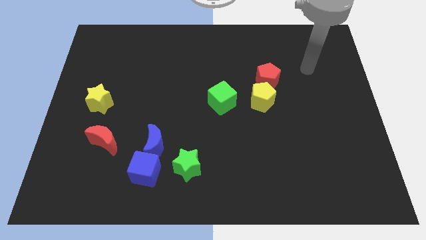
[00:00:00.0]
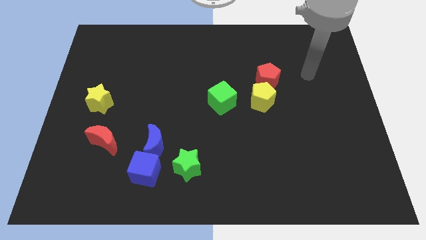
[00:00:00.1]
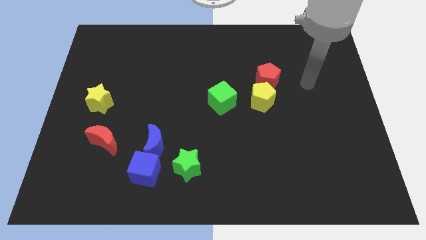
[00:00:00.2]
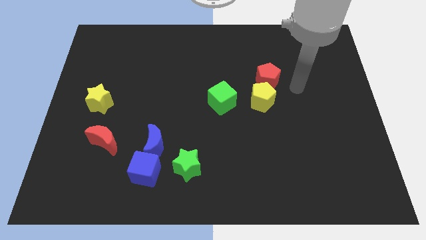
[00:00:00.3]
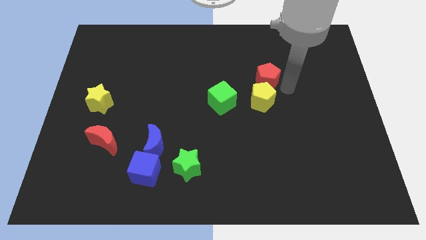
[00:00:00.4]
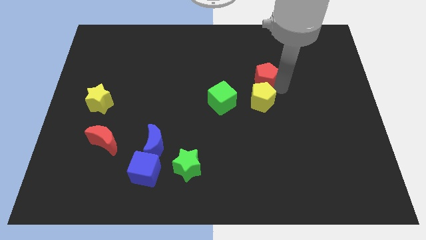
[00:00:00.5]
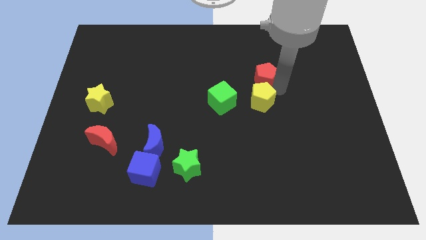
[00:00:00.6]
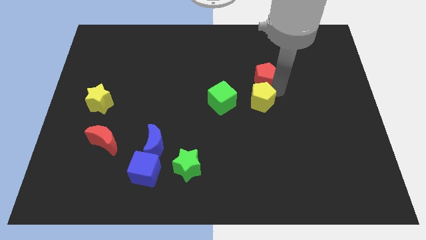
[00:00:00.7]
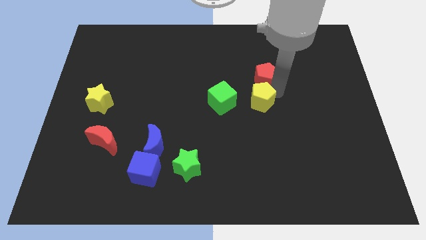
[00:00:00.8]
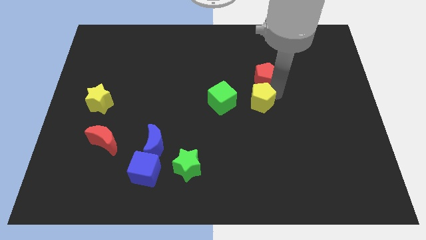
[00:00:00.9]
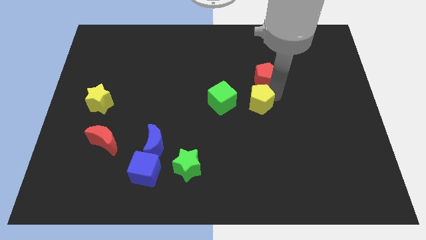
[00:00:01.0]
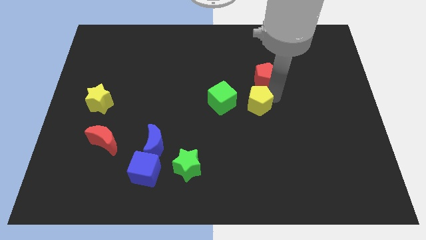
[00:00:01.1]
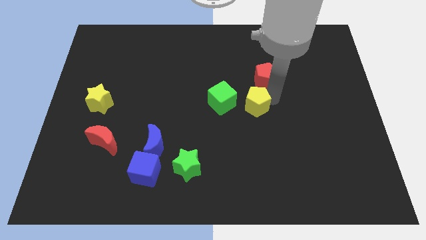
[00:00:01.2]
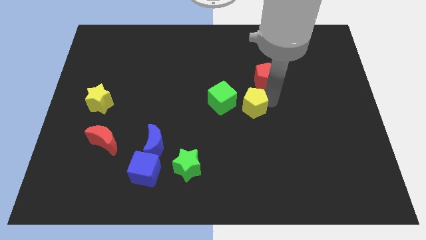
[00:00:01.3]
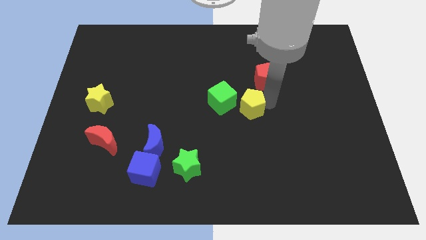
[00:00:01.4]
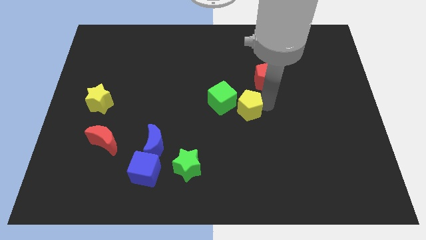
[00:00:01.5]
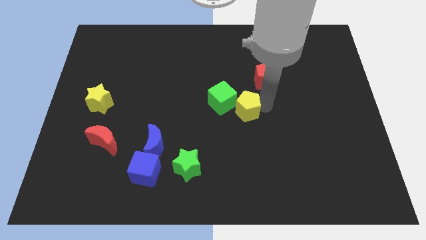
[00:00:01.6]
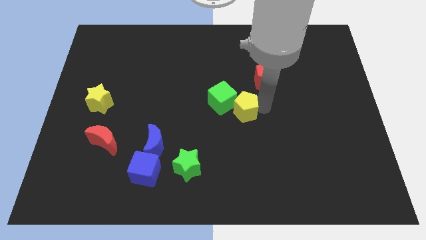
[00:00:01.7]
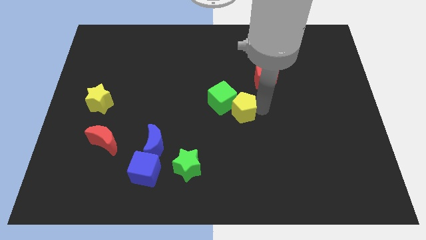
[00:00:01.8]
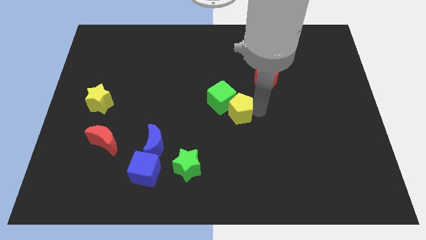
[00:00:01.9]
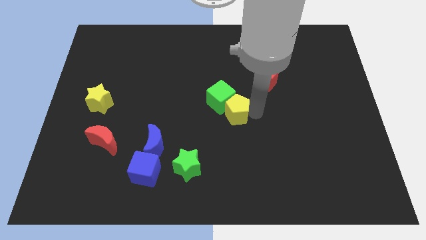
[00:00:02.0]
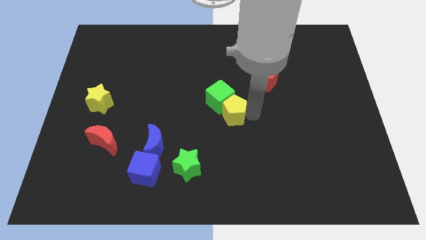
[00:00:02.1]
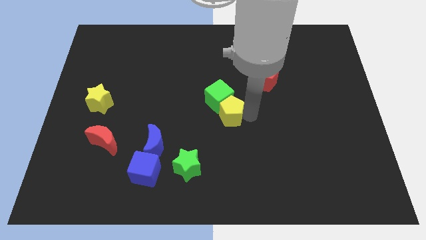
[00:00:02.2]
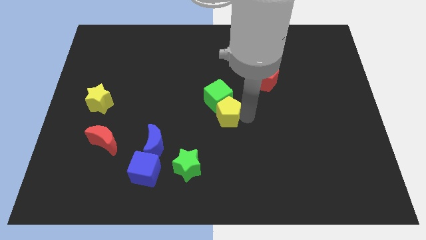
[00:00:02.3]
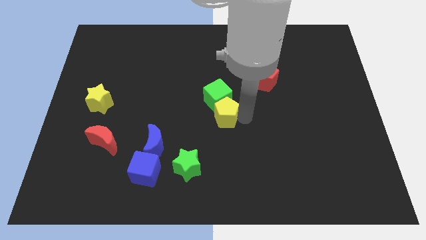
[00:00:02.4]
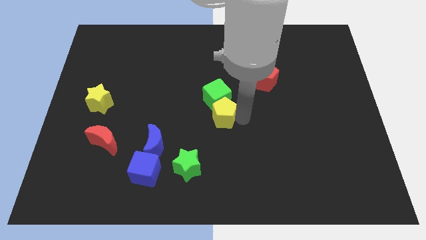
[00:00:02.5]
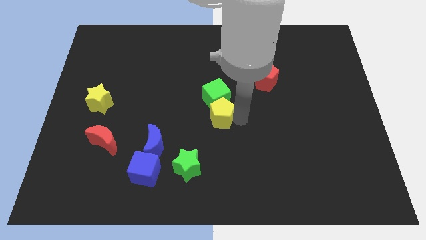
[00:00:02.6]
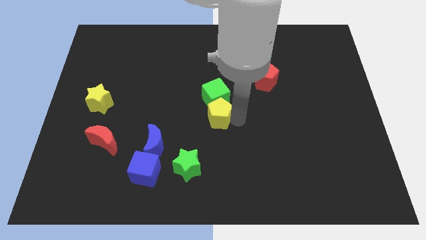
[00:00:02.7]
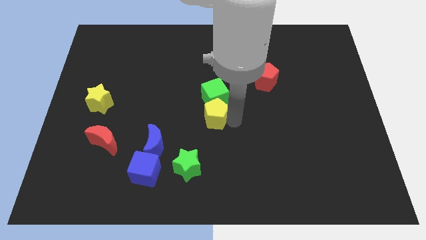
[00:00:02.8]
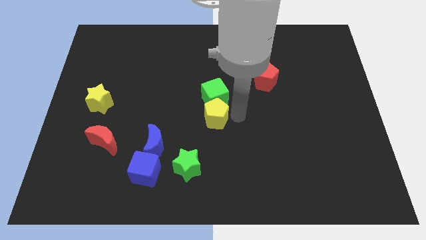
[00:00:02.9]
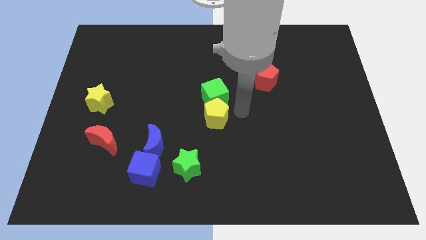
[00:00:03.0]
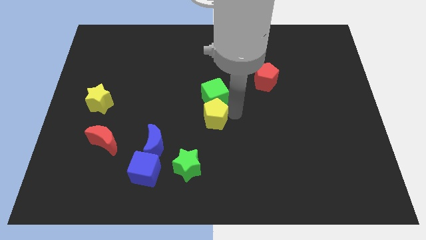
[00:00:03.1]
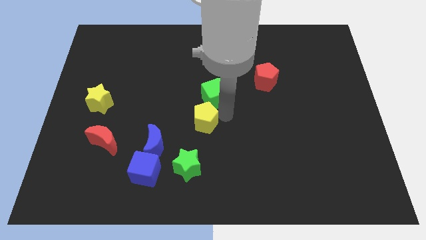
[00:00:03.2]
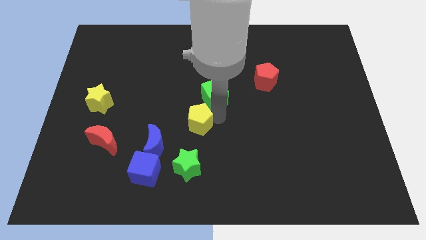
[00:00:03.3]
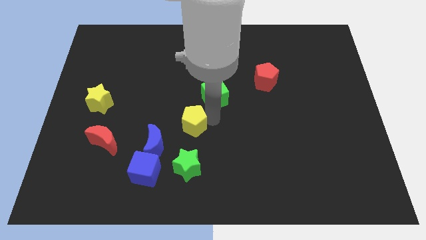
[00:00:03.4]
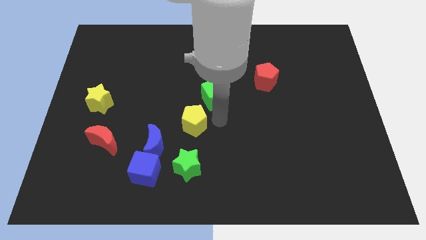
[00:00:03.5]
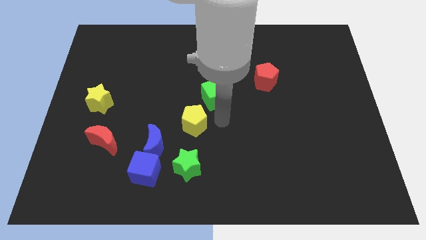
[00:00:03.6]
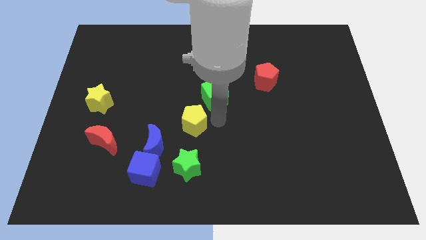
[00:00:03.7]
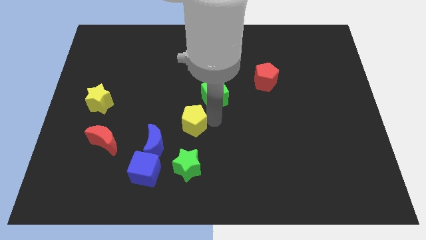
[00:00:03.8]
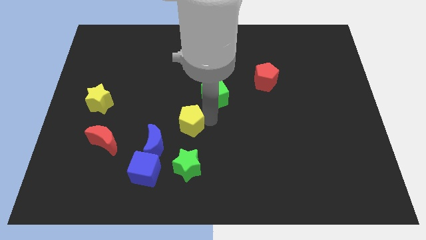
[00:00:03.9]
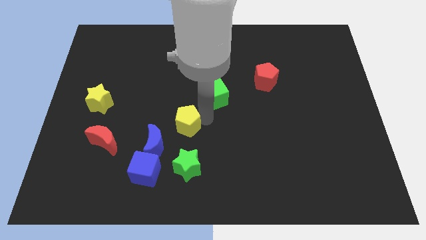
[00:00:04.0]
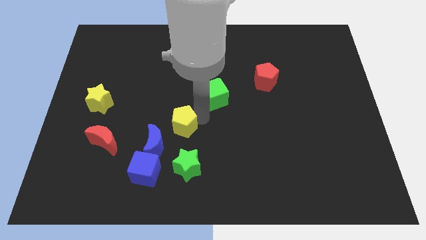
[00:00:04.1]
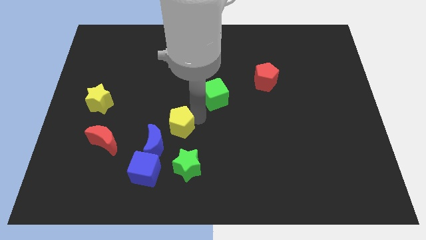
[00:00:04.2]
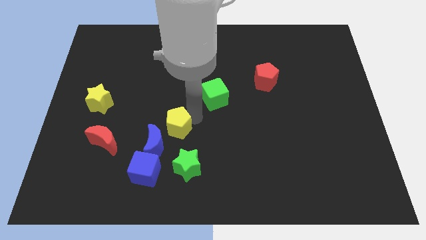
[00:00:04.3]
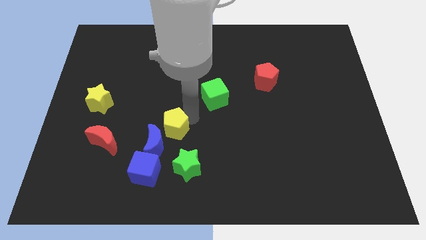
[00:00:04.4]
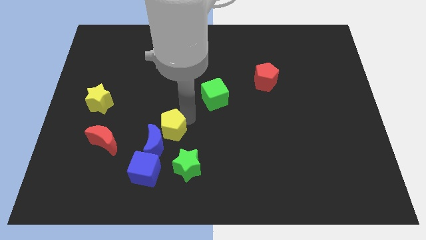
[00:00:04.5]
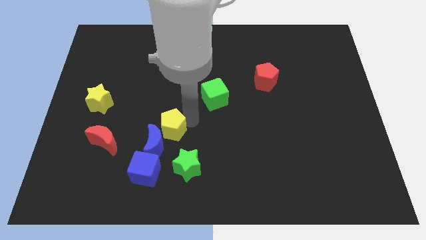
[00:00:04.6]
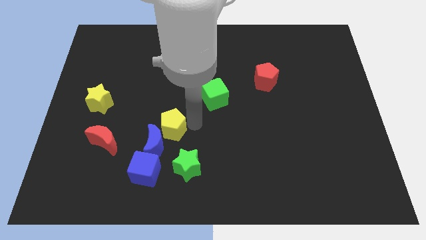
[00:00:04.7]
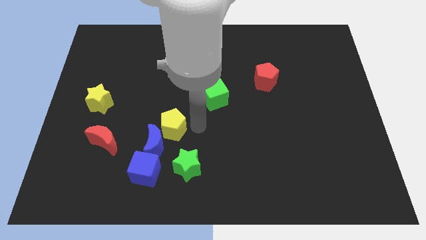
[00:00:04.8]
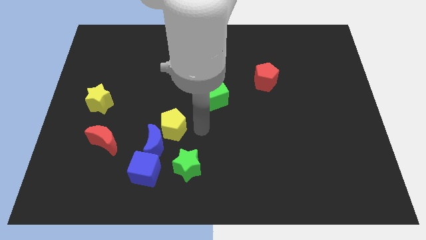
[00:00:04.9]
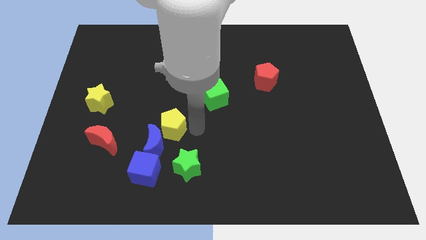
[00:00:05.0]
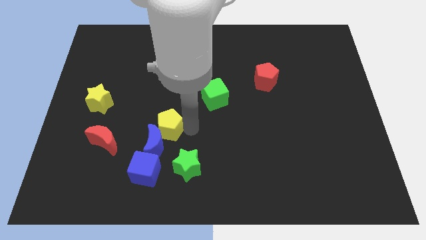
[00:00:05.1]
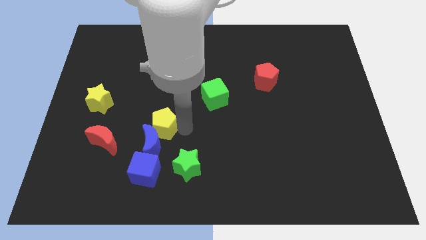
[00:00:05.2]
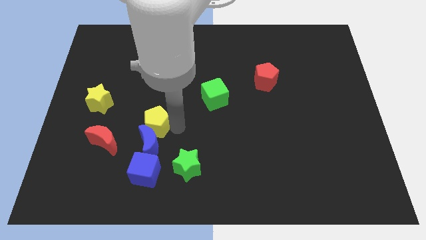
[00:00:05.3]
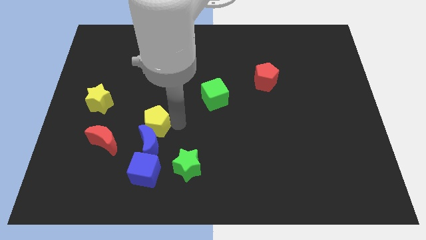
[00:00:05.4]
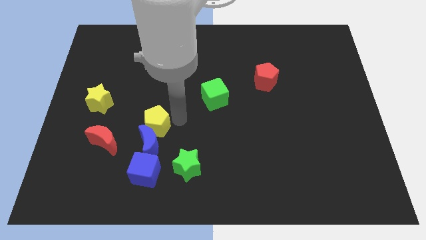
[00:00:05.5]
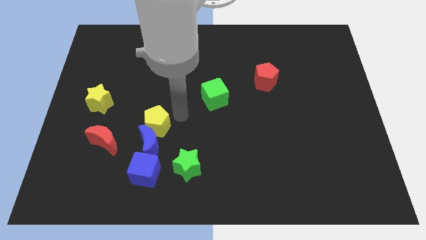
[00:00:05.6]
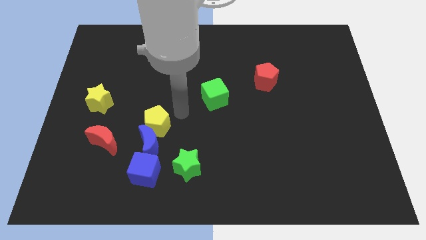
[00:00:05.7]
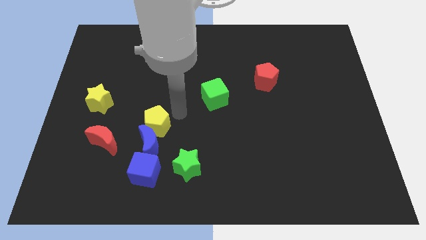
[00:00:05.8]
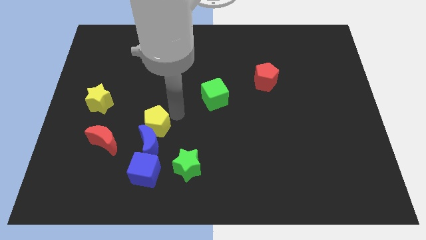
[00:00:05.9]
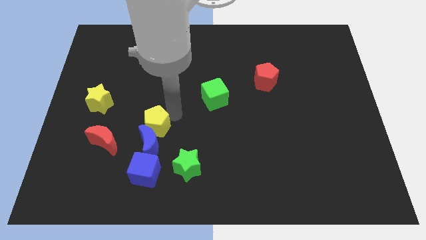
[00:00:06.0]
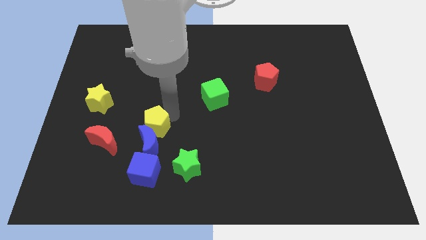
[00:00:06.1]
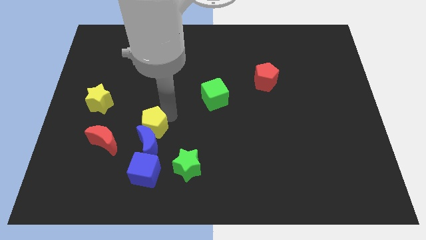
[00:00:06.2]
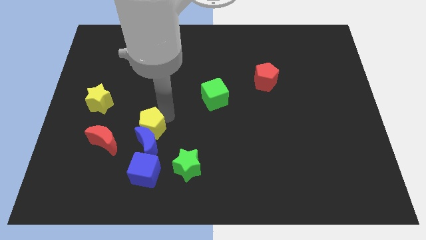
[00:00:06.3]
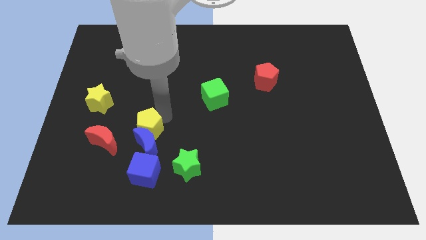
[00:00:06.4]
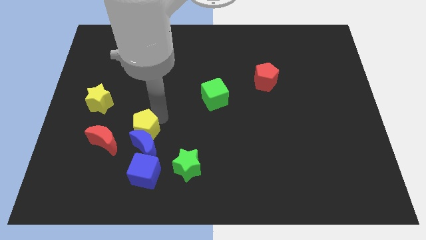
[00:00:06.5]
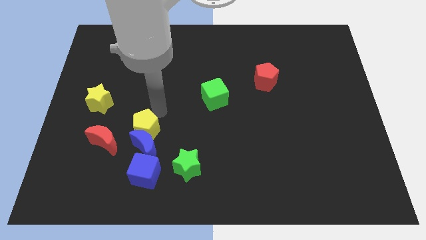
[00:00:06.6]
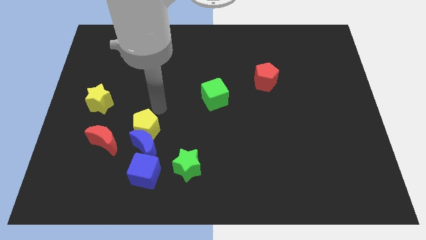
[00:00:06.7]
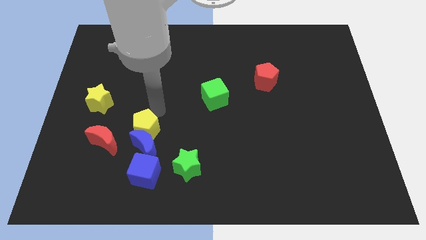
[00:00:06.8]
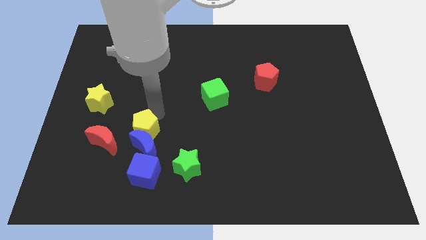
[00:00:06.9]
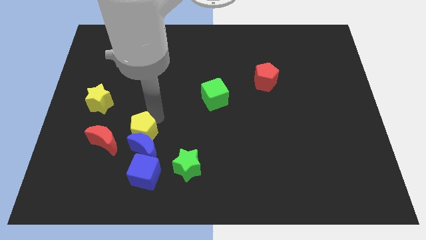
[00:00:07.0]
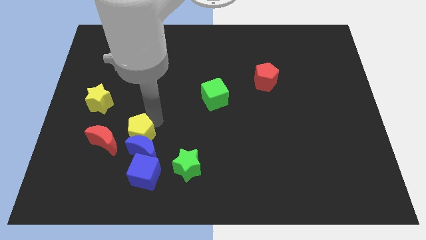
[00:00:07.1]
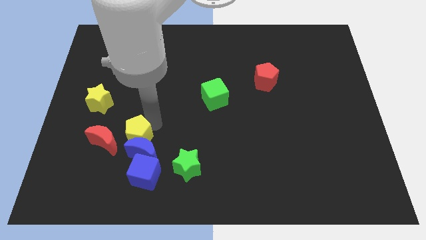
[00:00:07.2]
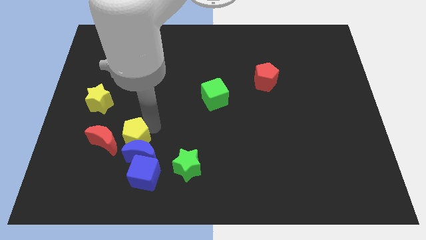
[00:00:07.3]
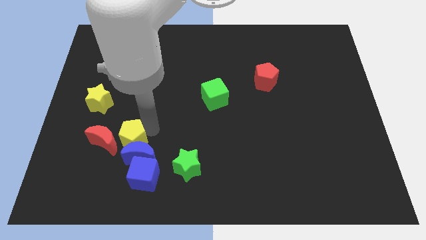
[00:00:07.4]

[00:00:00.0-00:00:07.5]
slide the yellow pentagon diagonally down and to the right of the red moon
